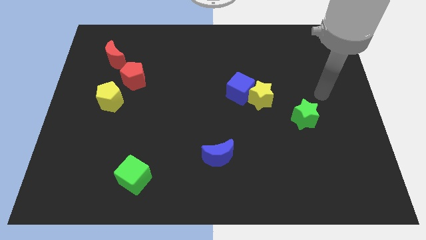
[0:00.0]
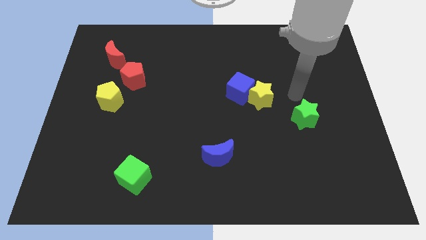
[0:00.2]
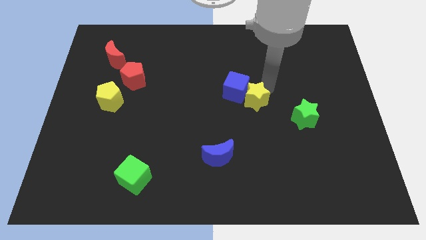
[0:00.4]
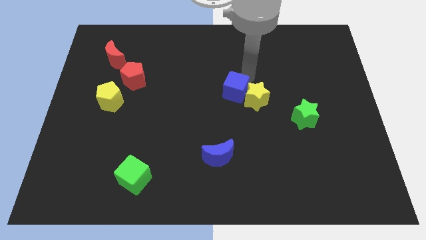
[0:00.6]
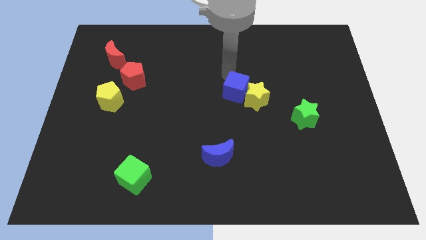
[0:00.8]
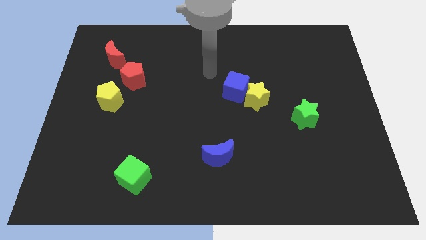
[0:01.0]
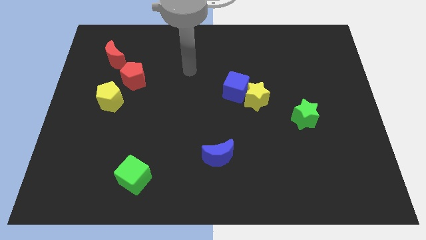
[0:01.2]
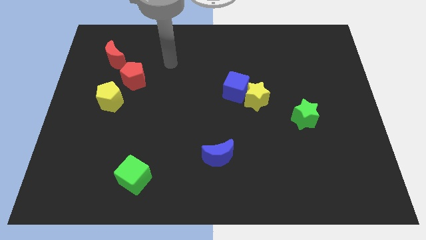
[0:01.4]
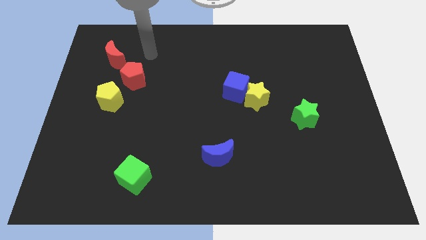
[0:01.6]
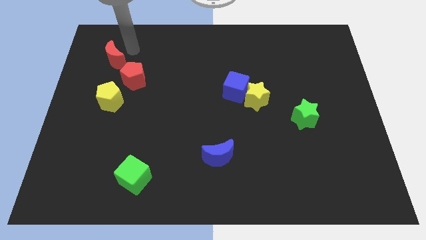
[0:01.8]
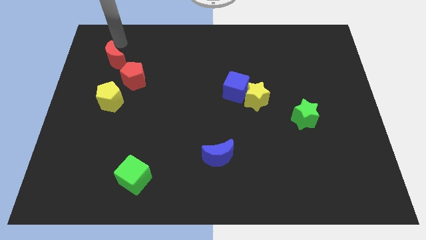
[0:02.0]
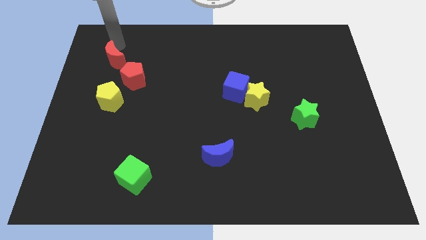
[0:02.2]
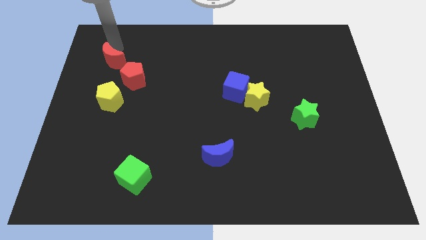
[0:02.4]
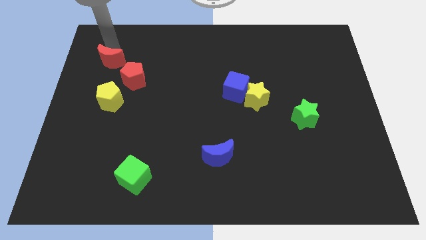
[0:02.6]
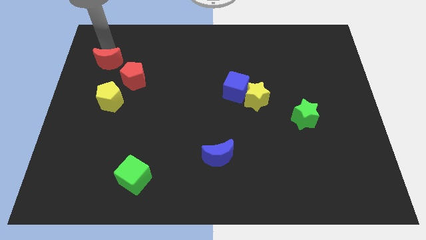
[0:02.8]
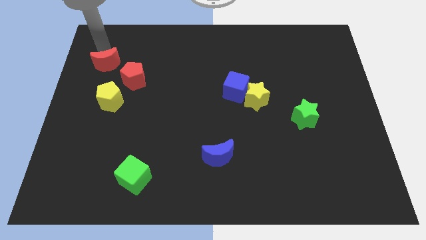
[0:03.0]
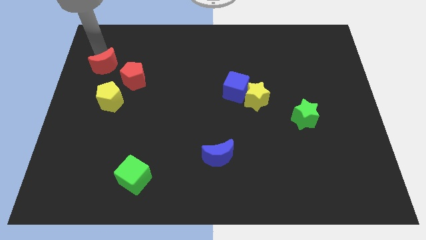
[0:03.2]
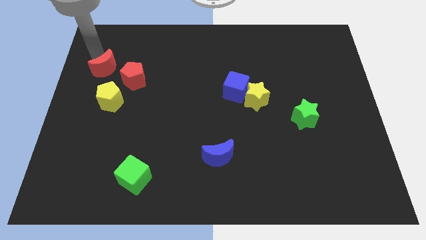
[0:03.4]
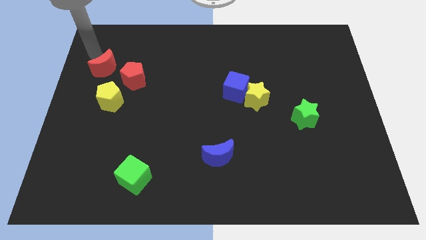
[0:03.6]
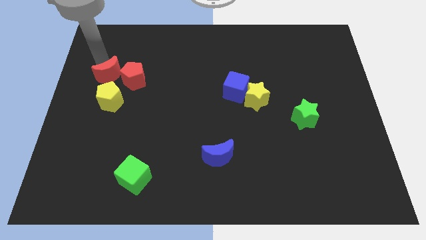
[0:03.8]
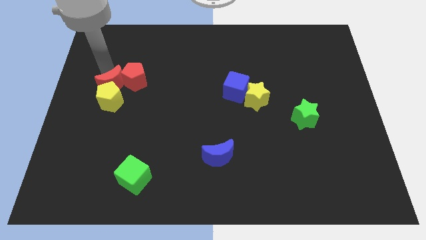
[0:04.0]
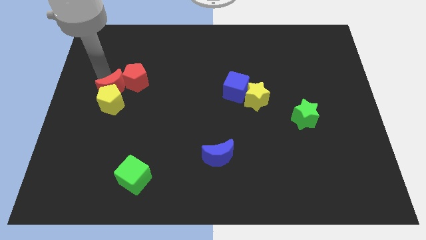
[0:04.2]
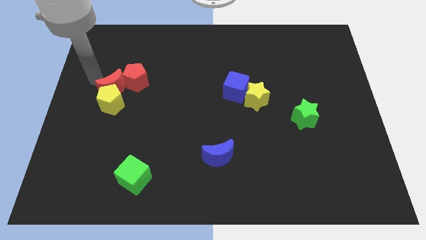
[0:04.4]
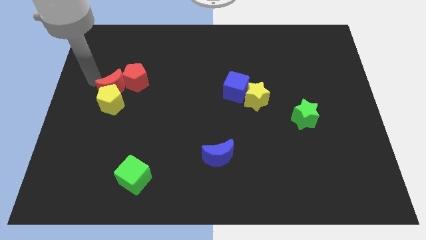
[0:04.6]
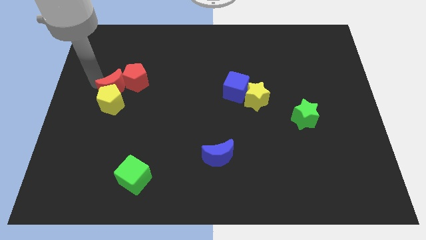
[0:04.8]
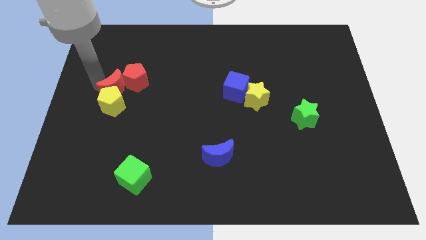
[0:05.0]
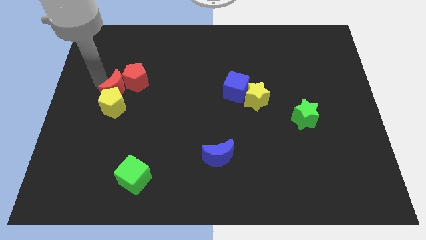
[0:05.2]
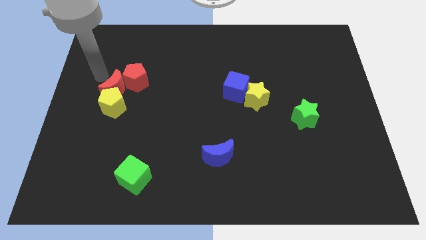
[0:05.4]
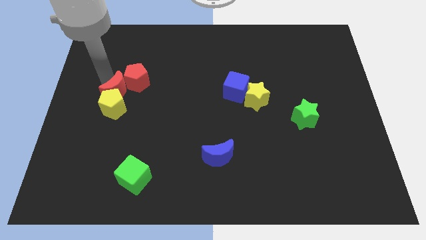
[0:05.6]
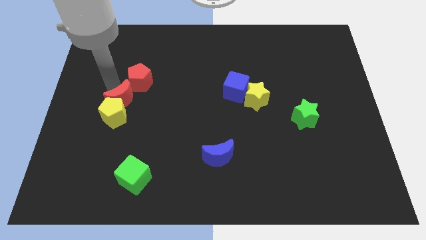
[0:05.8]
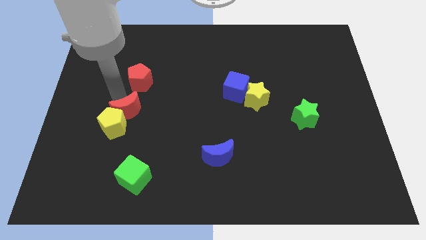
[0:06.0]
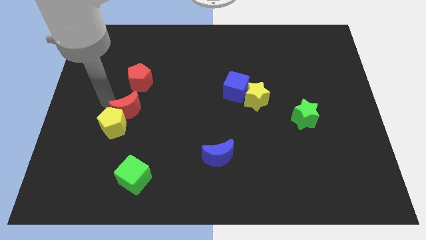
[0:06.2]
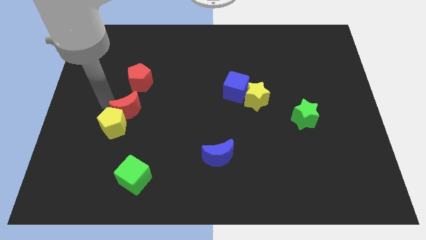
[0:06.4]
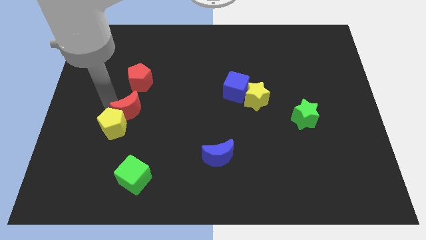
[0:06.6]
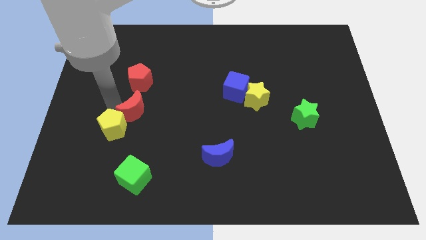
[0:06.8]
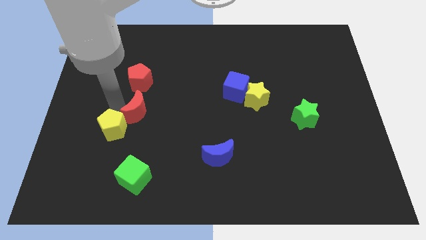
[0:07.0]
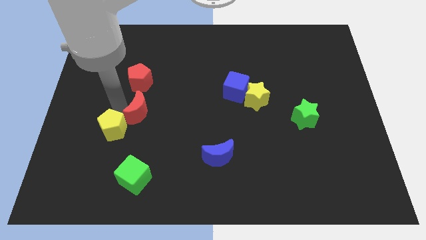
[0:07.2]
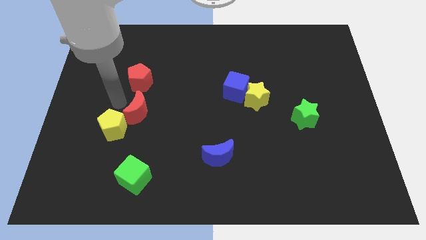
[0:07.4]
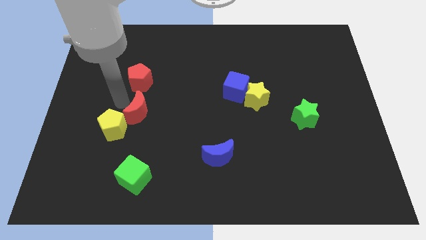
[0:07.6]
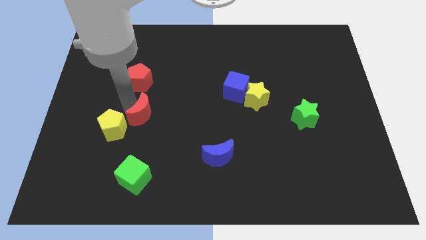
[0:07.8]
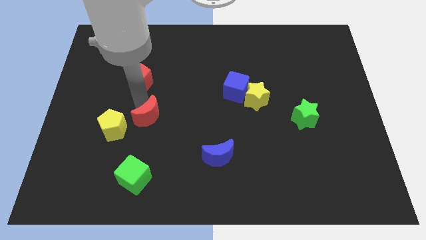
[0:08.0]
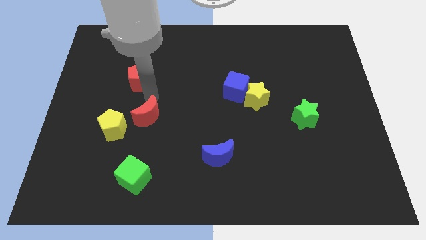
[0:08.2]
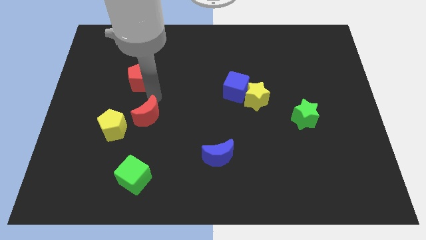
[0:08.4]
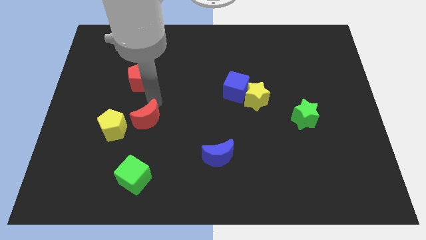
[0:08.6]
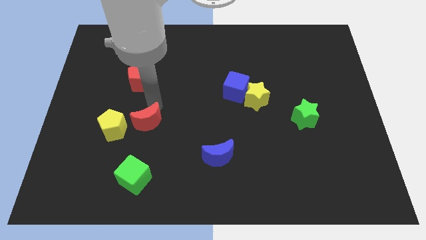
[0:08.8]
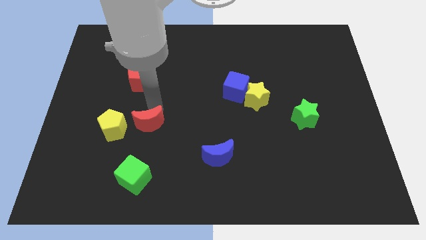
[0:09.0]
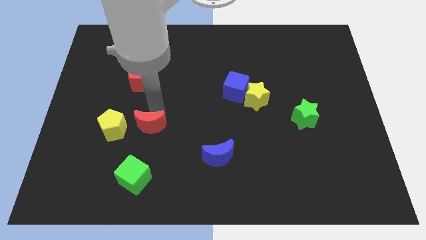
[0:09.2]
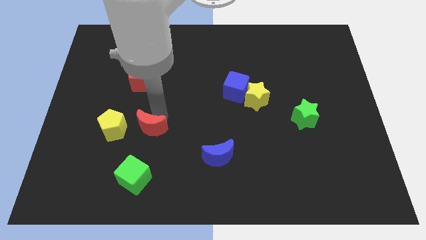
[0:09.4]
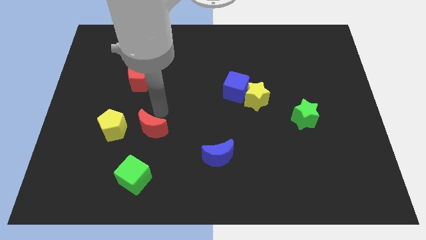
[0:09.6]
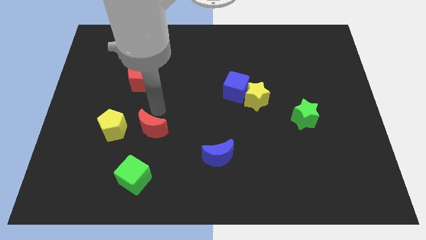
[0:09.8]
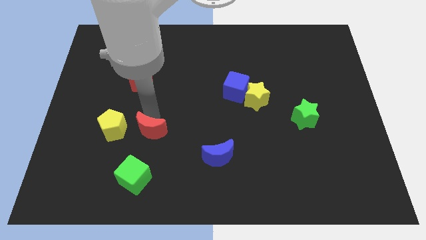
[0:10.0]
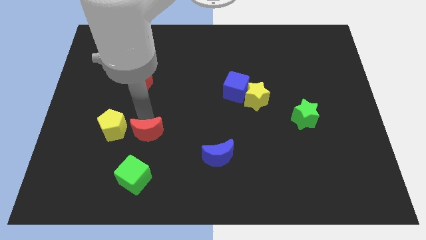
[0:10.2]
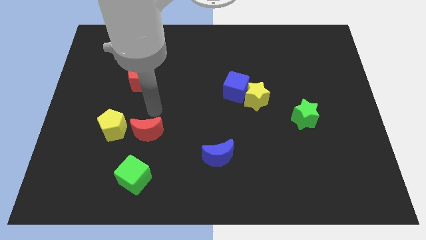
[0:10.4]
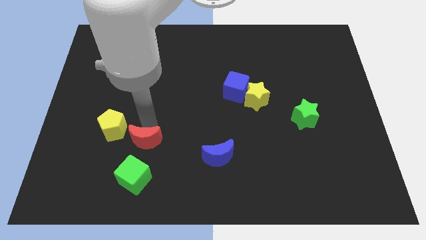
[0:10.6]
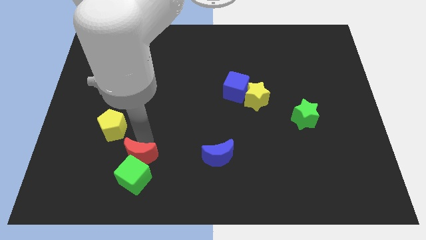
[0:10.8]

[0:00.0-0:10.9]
slide the red moon close to the green cube

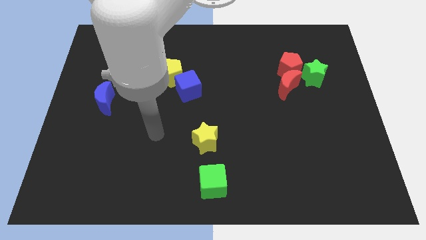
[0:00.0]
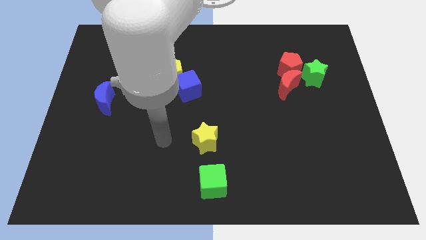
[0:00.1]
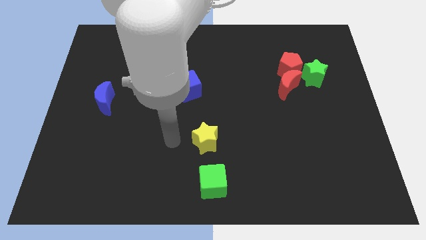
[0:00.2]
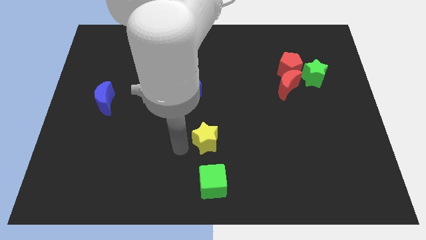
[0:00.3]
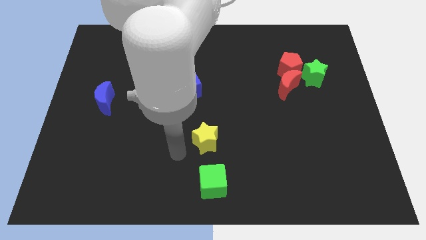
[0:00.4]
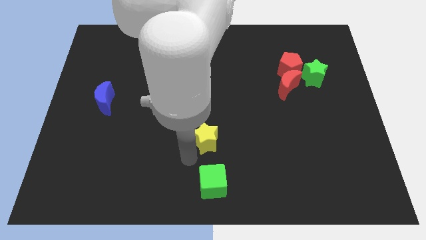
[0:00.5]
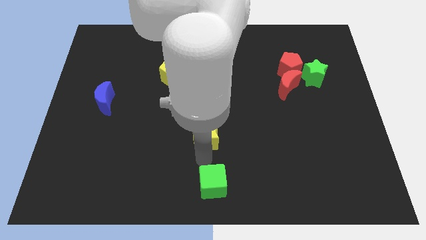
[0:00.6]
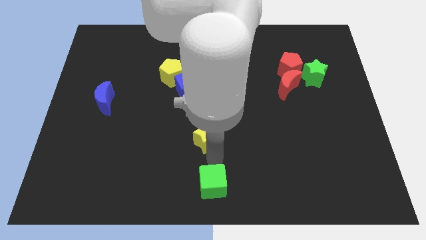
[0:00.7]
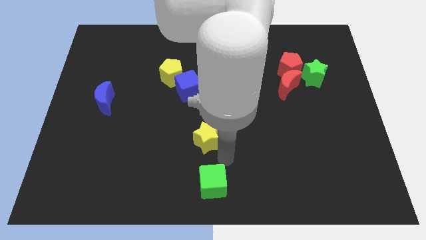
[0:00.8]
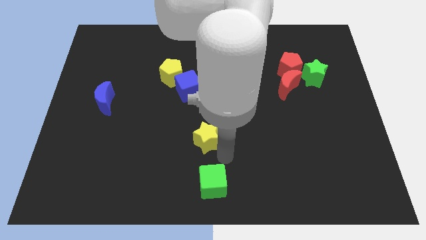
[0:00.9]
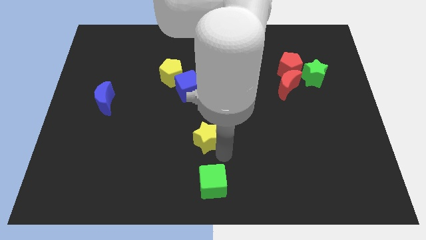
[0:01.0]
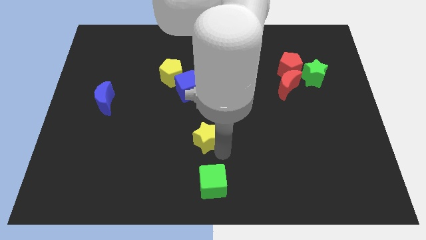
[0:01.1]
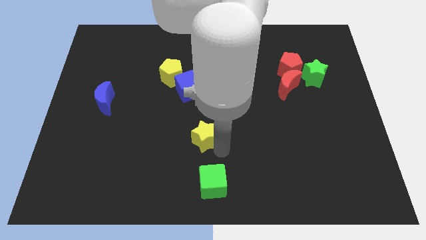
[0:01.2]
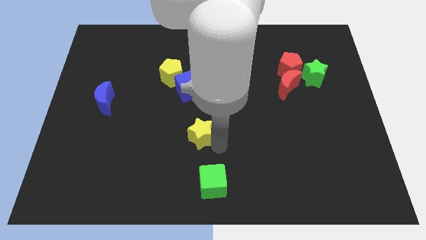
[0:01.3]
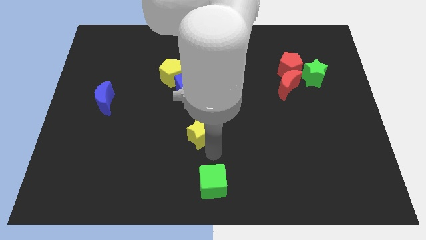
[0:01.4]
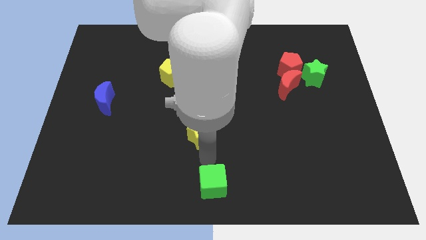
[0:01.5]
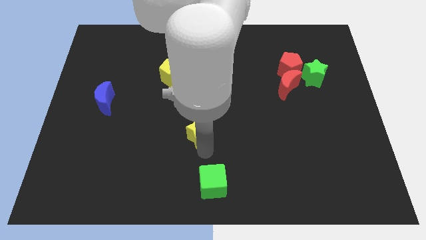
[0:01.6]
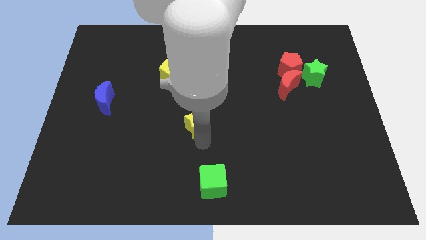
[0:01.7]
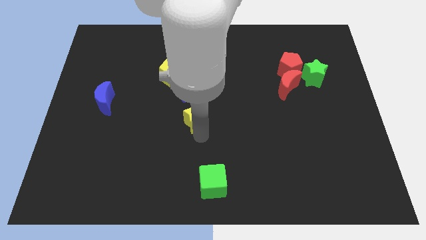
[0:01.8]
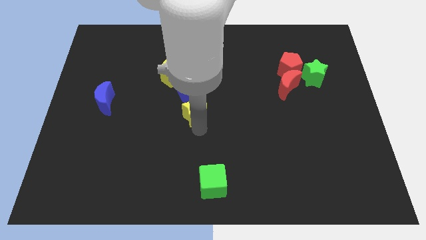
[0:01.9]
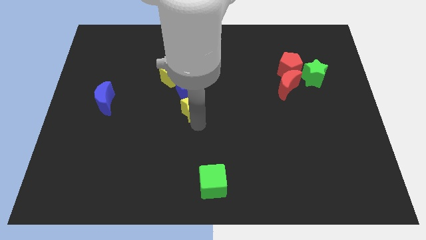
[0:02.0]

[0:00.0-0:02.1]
move the yellow star to the blue cube
